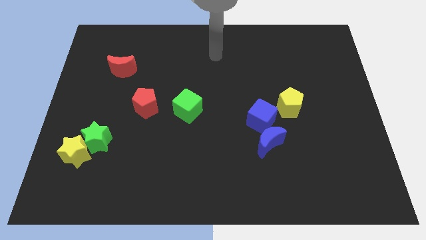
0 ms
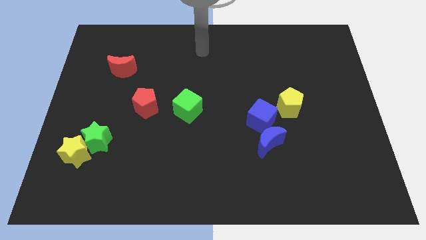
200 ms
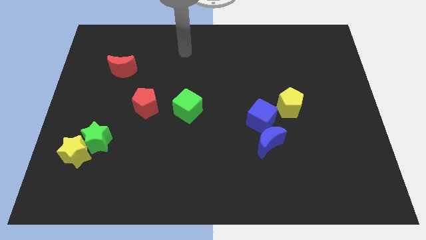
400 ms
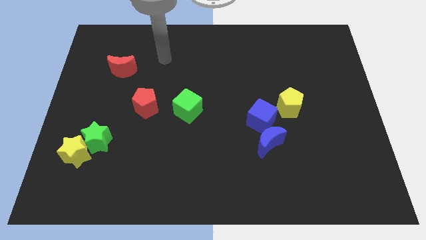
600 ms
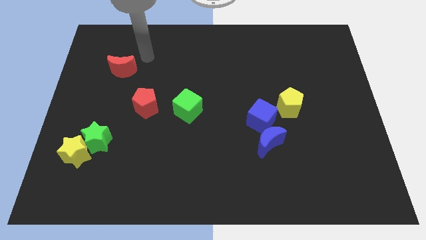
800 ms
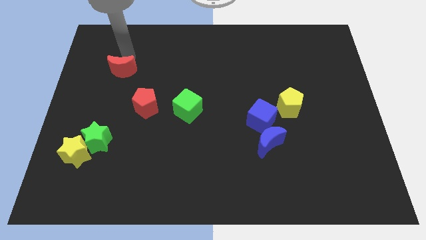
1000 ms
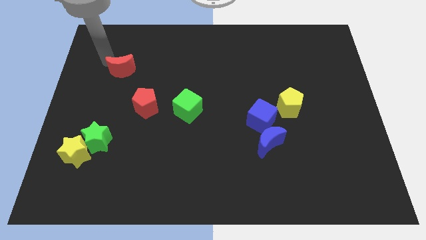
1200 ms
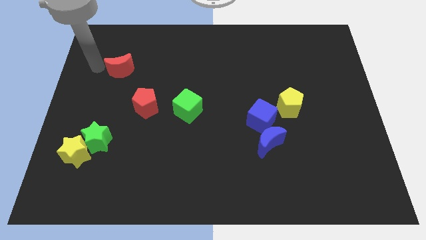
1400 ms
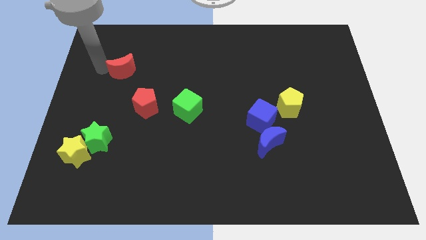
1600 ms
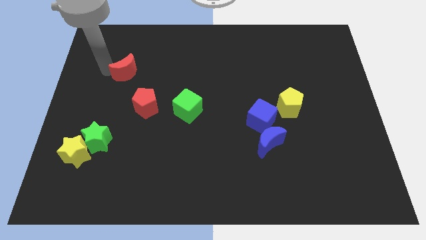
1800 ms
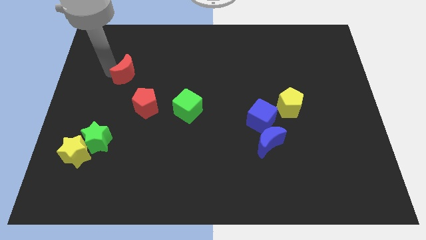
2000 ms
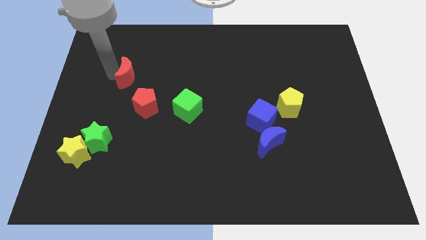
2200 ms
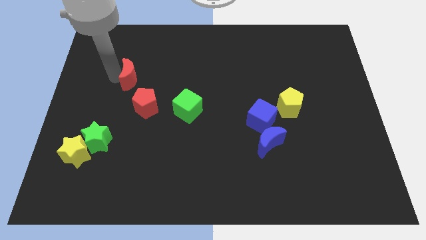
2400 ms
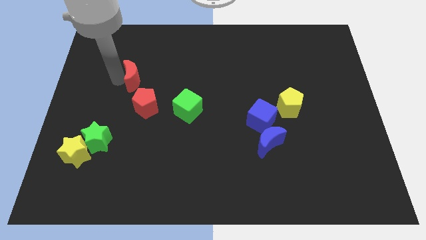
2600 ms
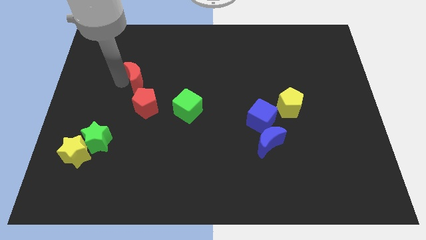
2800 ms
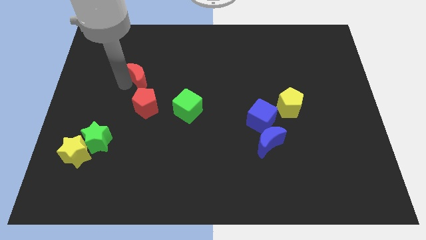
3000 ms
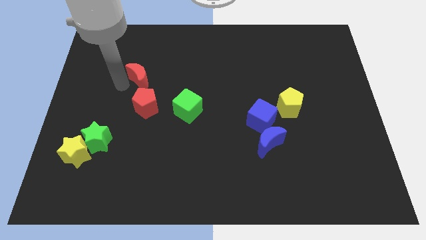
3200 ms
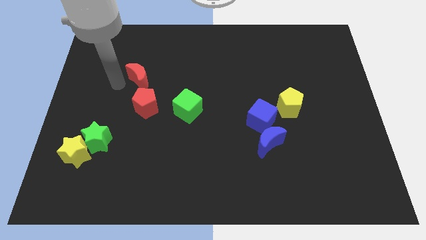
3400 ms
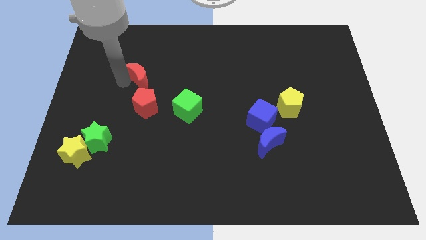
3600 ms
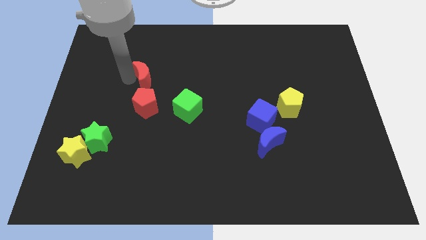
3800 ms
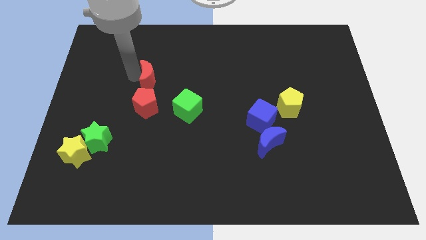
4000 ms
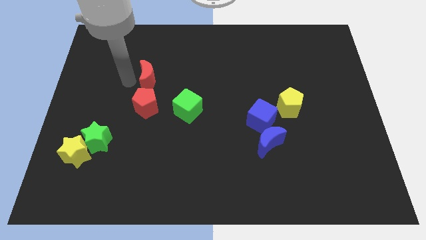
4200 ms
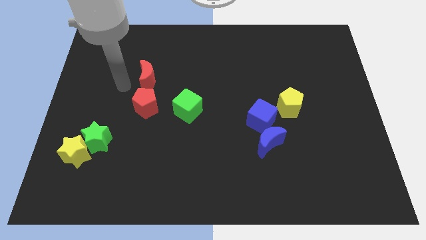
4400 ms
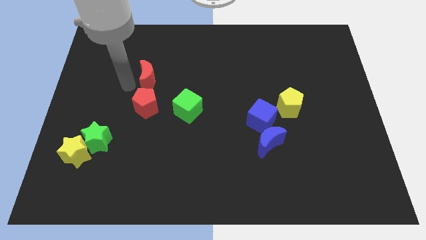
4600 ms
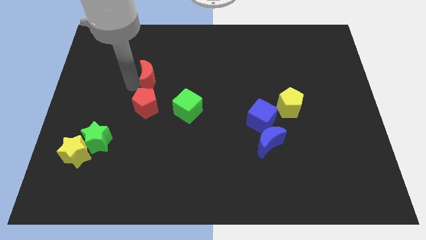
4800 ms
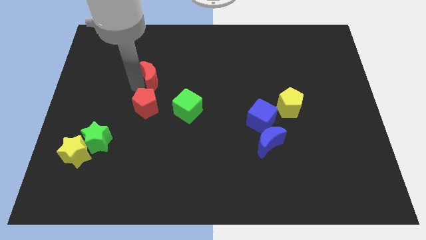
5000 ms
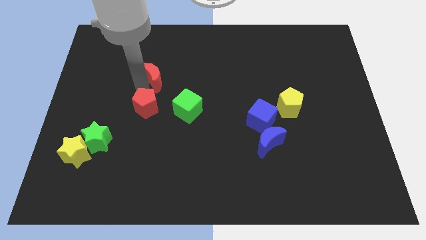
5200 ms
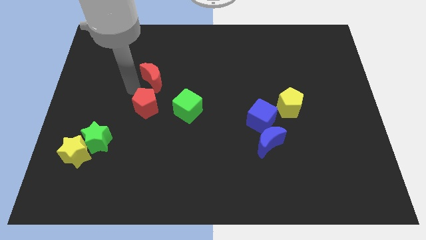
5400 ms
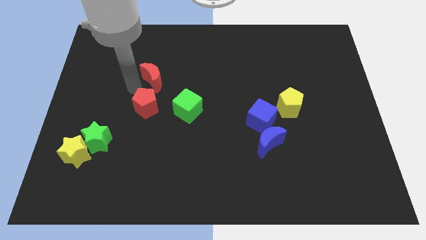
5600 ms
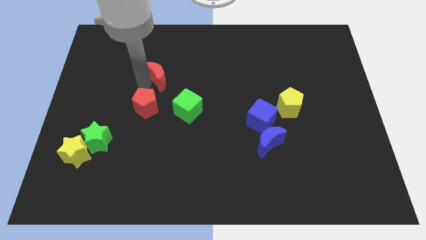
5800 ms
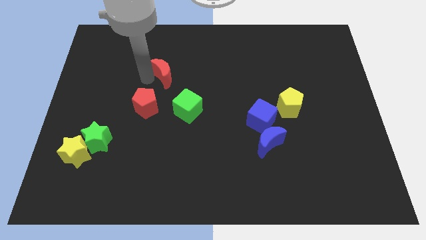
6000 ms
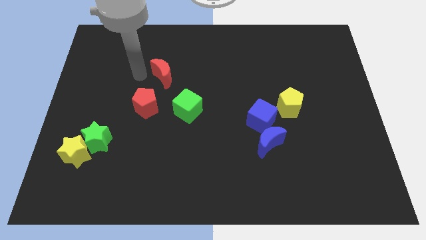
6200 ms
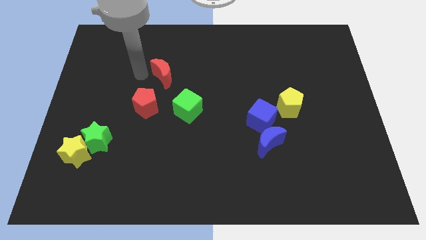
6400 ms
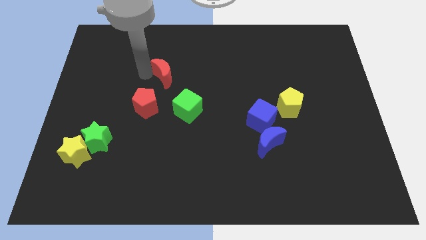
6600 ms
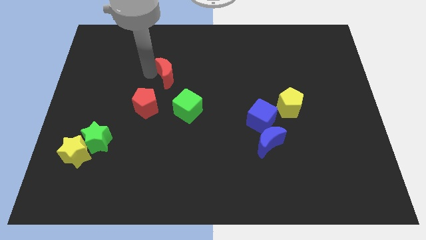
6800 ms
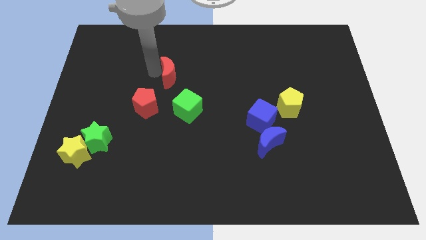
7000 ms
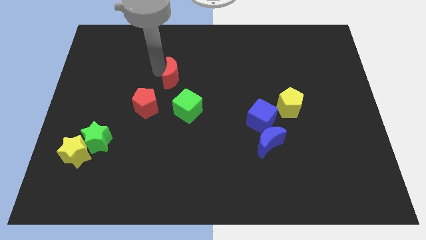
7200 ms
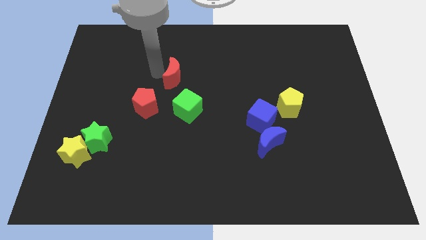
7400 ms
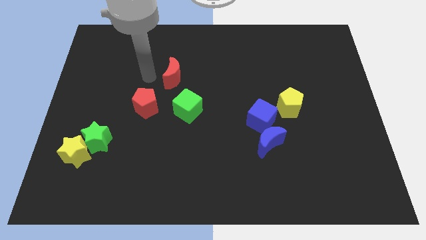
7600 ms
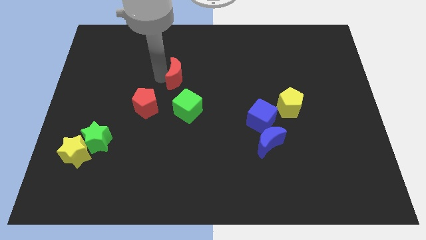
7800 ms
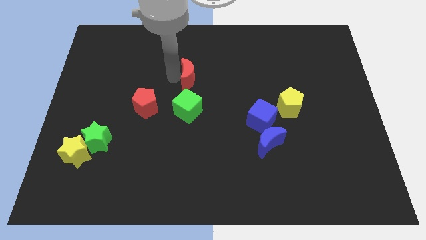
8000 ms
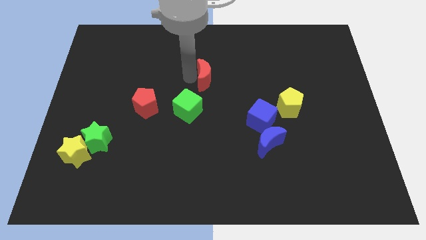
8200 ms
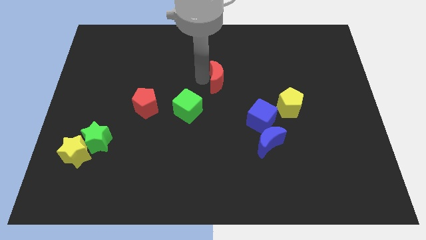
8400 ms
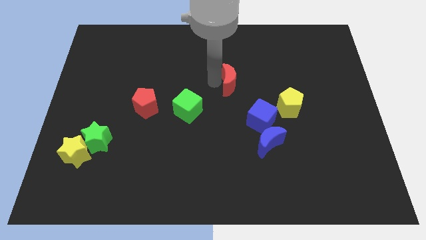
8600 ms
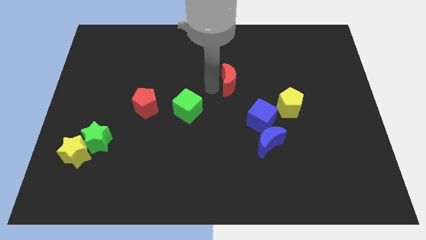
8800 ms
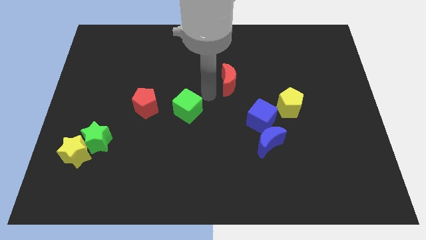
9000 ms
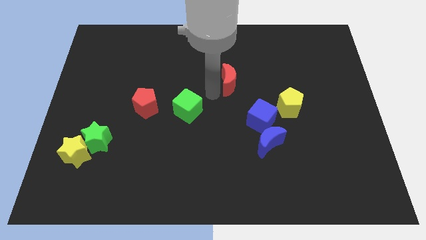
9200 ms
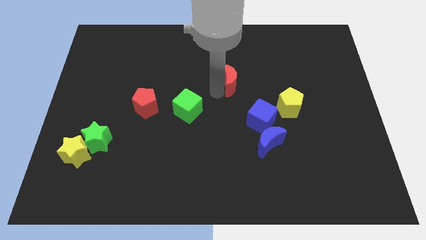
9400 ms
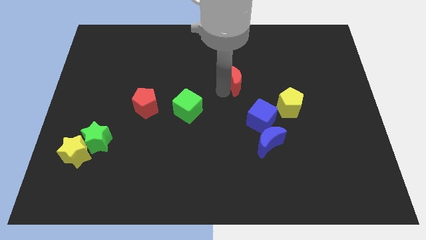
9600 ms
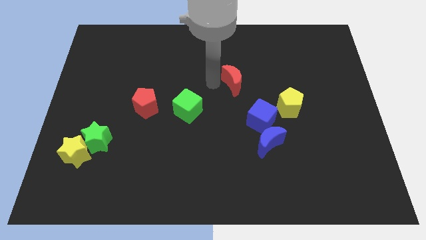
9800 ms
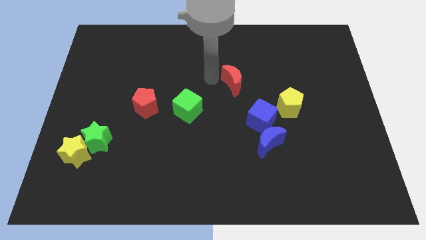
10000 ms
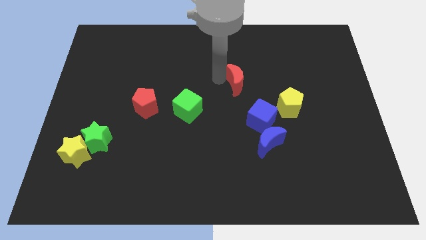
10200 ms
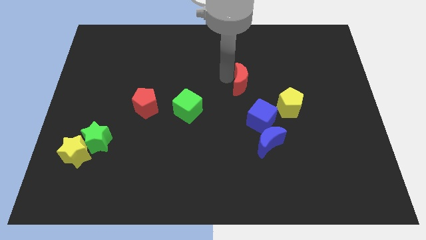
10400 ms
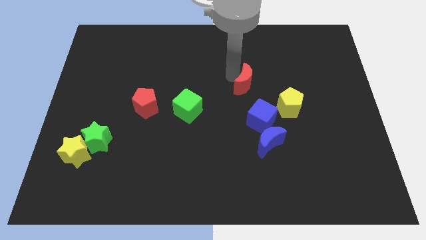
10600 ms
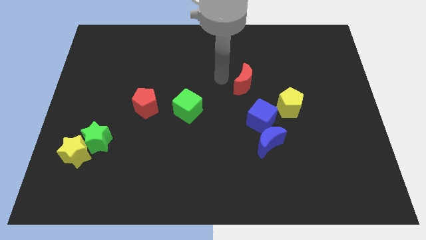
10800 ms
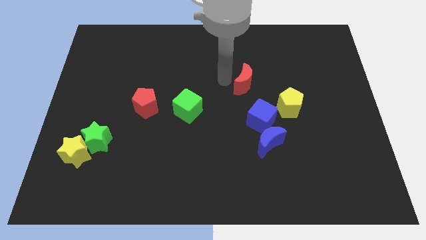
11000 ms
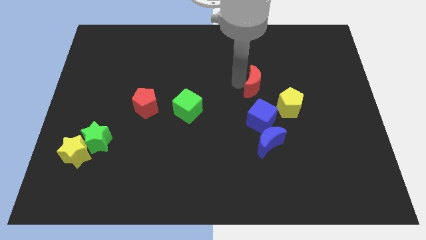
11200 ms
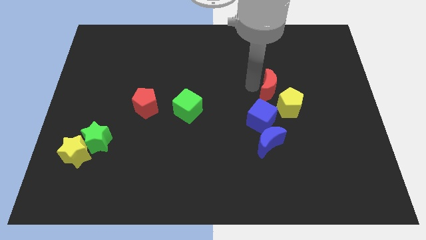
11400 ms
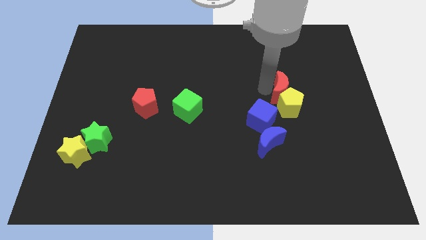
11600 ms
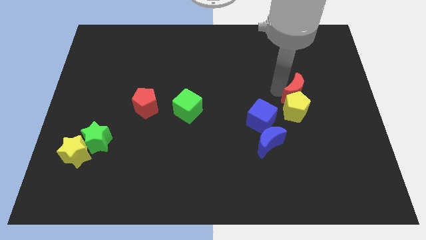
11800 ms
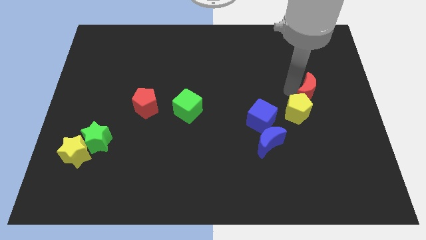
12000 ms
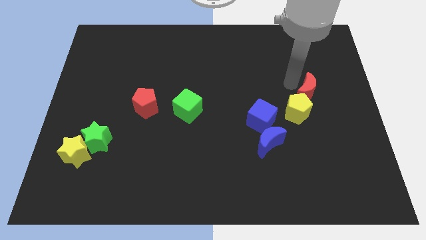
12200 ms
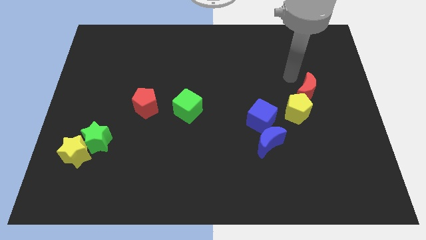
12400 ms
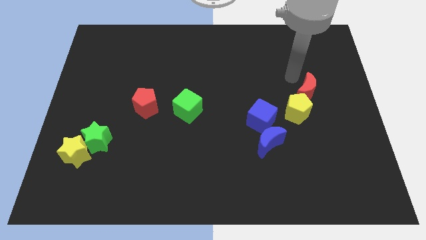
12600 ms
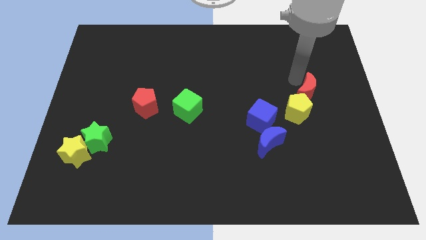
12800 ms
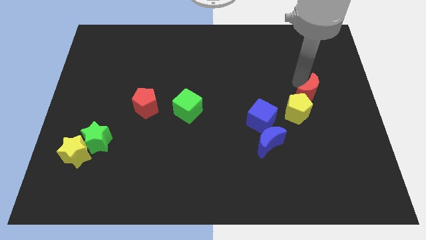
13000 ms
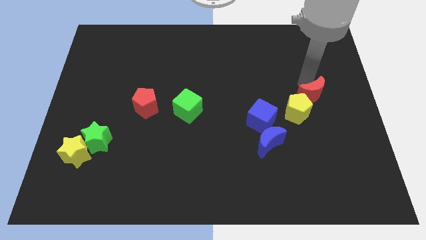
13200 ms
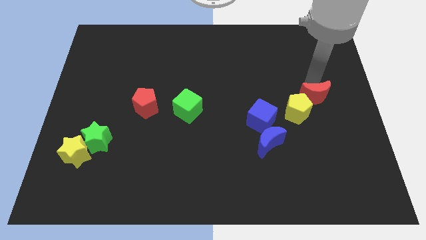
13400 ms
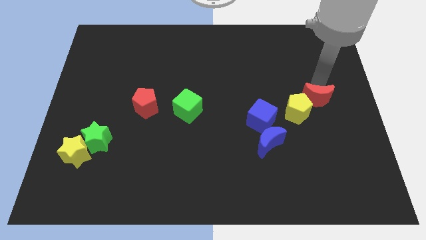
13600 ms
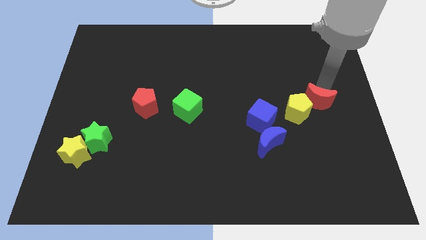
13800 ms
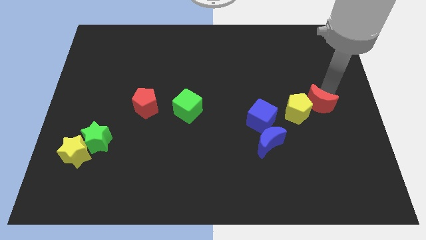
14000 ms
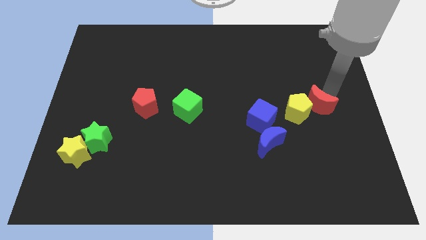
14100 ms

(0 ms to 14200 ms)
put the red moon right of the blue cube

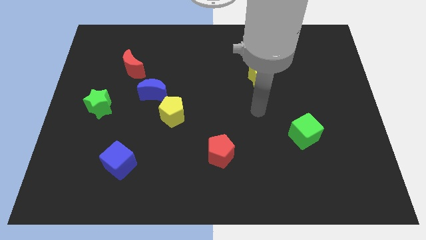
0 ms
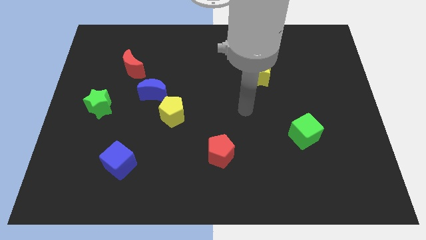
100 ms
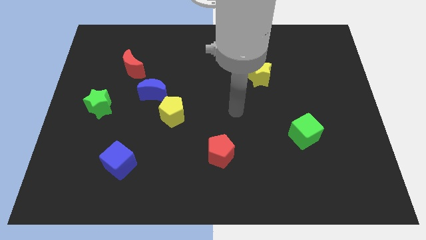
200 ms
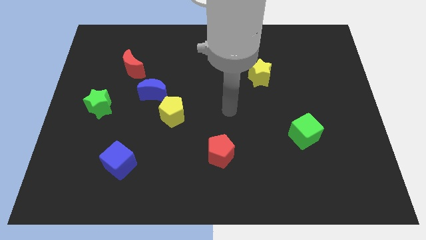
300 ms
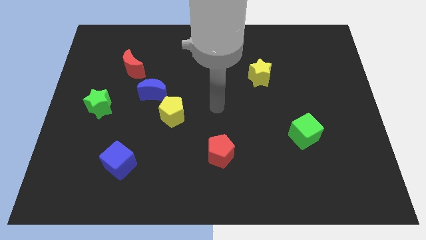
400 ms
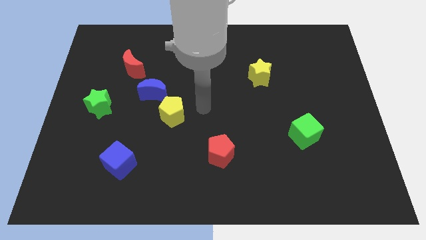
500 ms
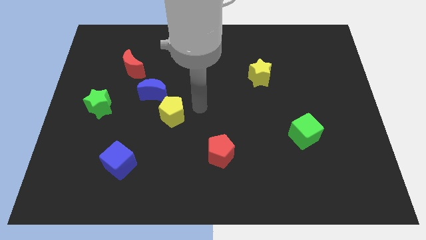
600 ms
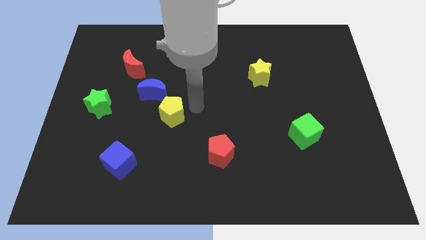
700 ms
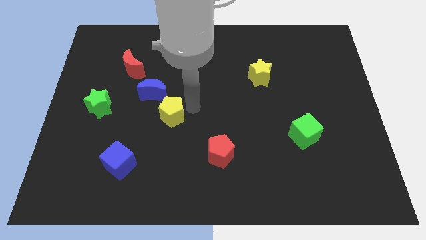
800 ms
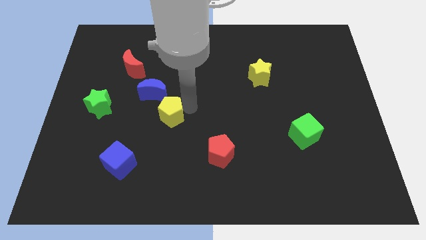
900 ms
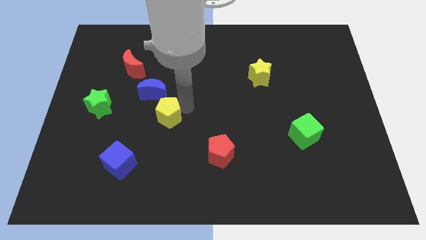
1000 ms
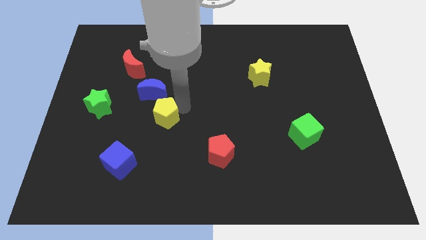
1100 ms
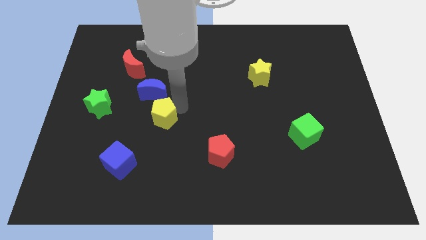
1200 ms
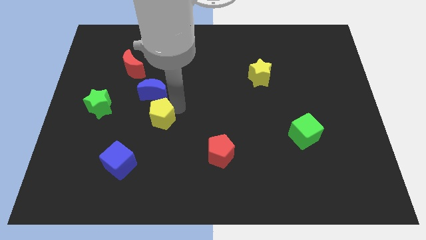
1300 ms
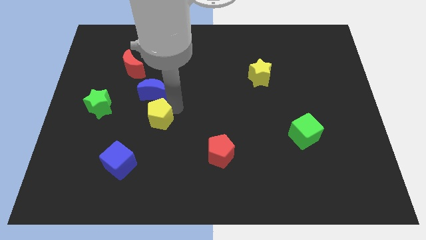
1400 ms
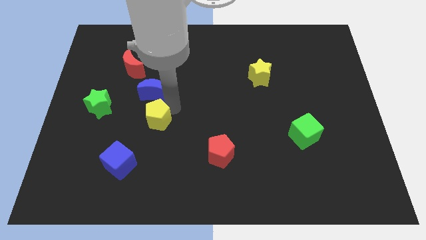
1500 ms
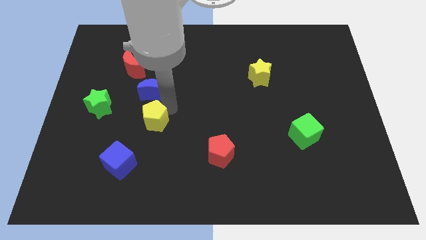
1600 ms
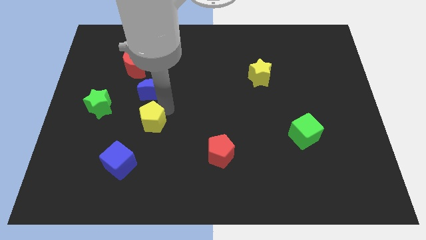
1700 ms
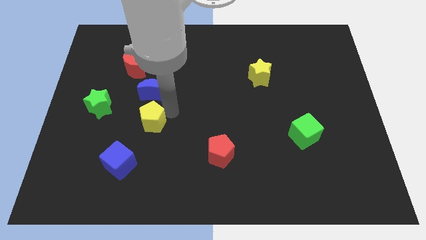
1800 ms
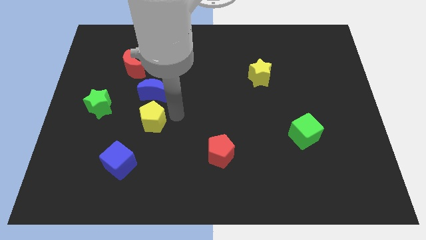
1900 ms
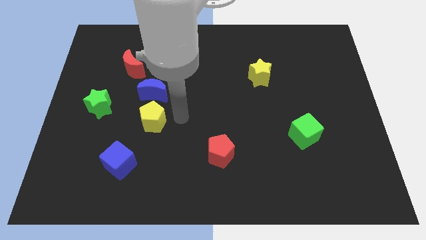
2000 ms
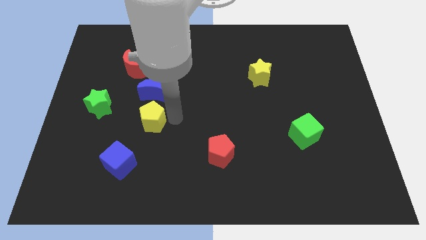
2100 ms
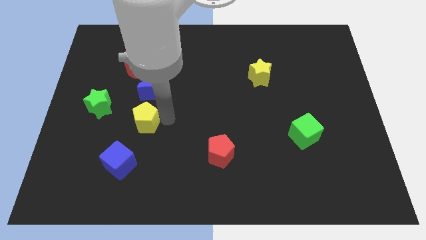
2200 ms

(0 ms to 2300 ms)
slide the yellow pentagon to the top side of the blue cube
